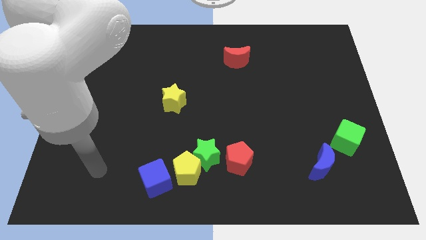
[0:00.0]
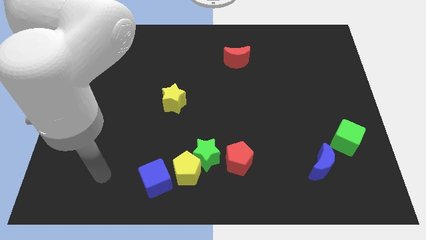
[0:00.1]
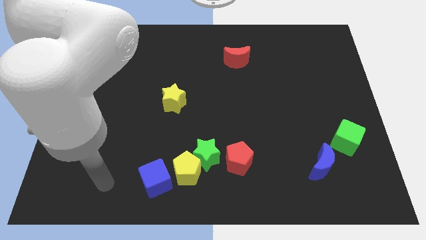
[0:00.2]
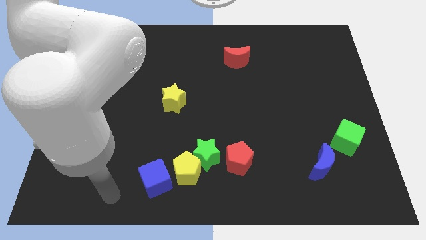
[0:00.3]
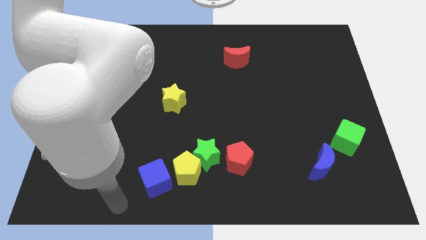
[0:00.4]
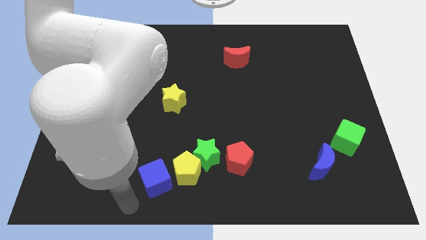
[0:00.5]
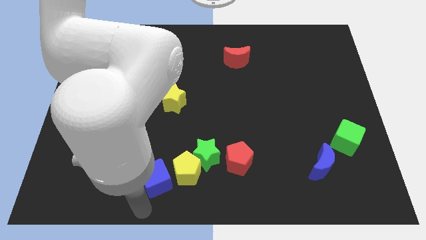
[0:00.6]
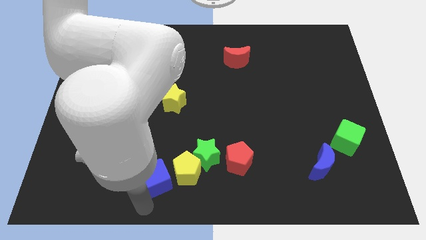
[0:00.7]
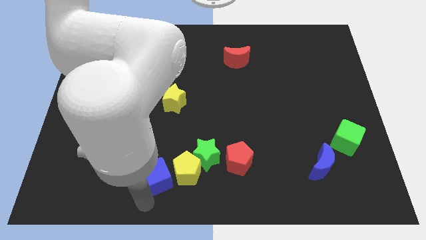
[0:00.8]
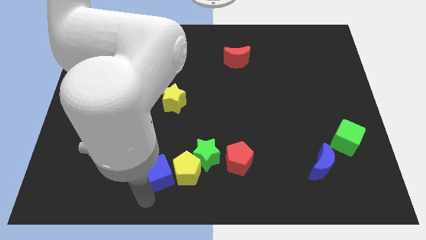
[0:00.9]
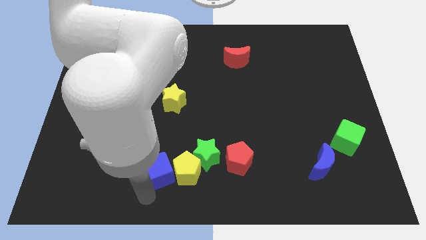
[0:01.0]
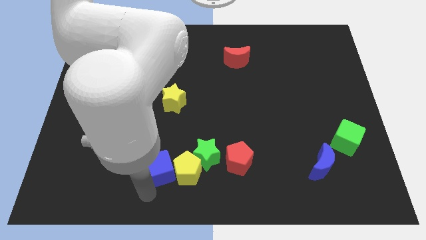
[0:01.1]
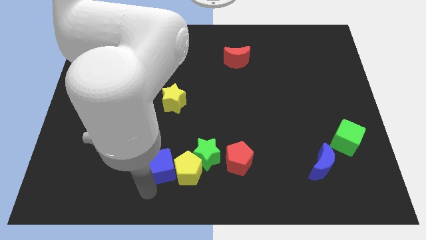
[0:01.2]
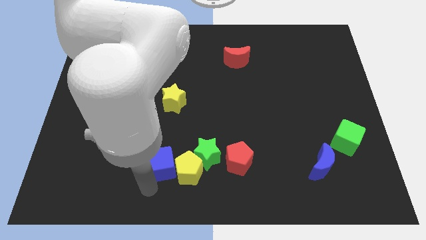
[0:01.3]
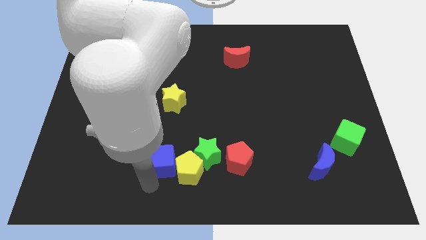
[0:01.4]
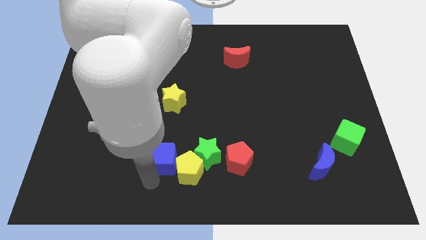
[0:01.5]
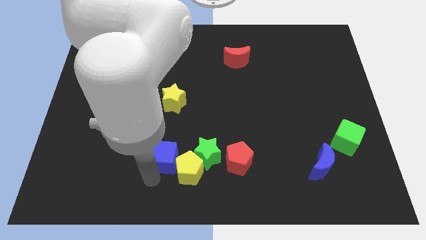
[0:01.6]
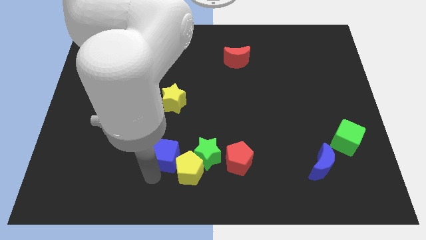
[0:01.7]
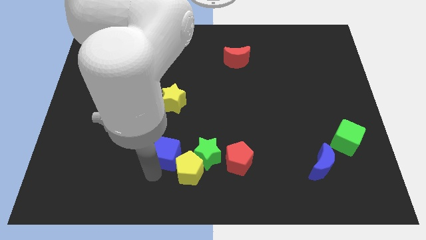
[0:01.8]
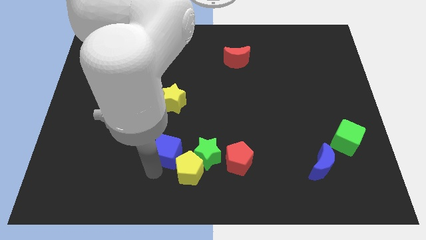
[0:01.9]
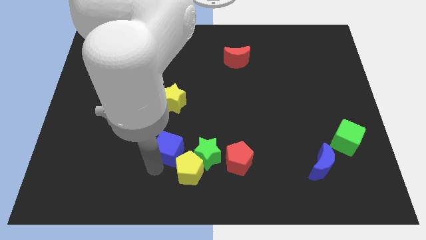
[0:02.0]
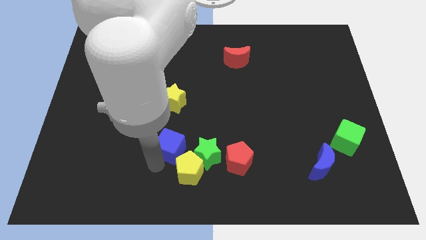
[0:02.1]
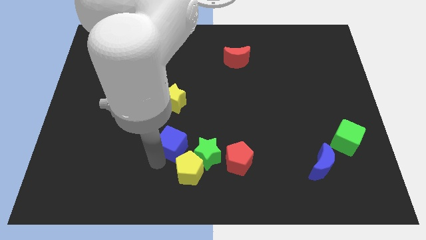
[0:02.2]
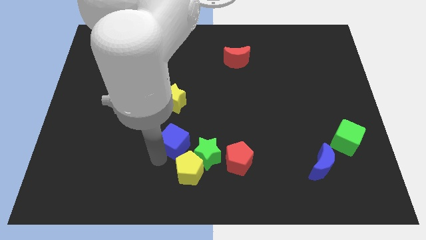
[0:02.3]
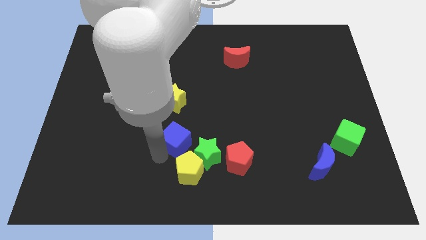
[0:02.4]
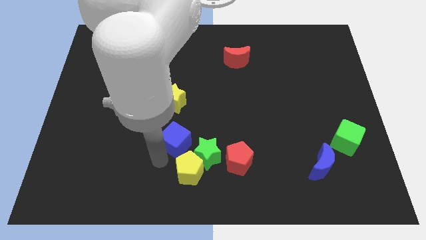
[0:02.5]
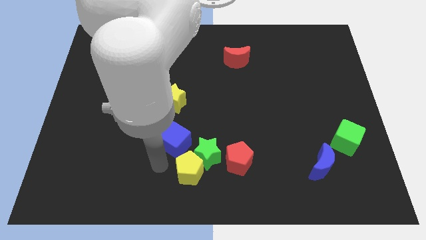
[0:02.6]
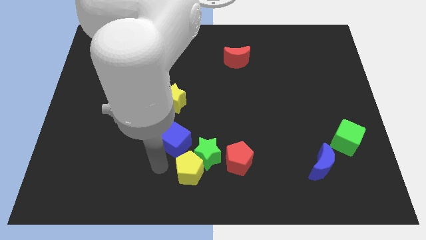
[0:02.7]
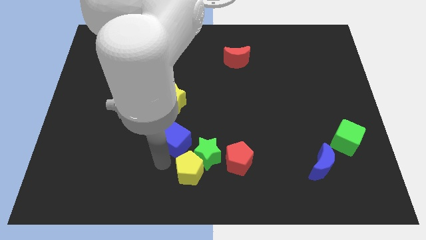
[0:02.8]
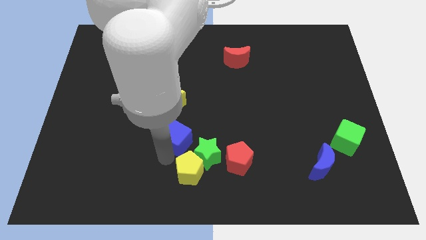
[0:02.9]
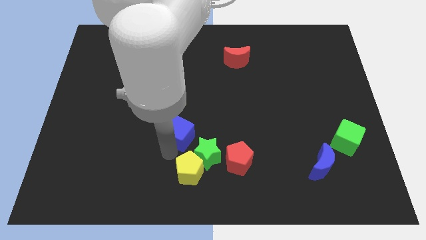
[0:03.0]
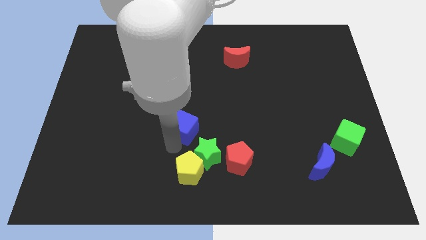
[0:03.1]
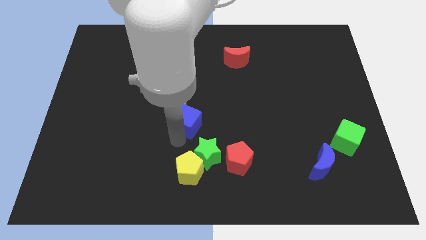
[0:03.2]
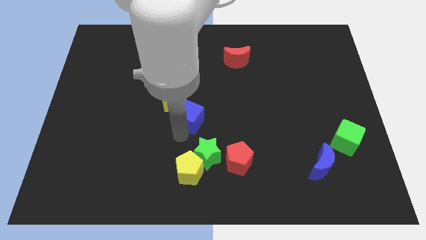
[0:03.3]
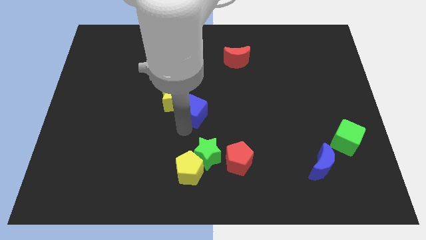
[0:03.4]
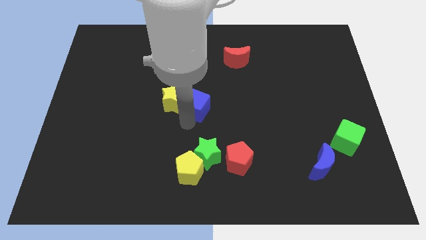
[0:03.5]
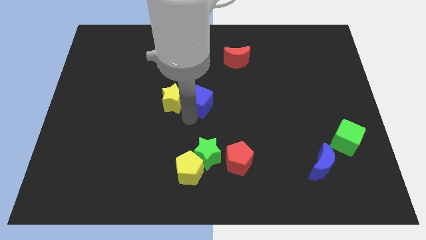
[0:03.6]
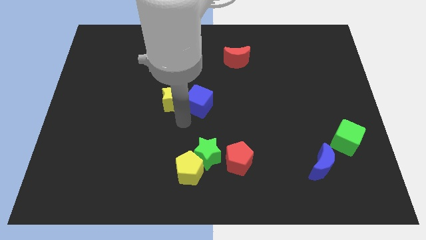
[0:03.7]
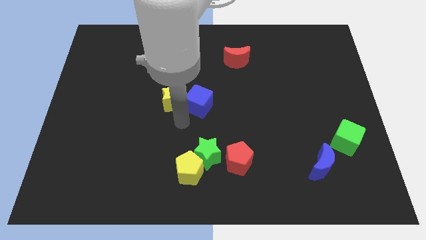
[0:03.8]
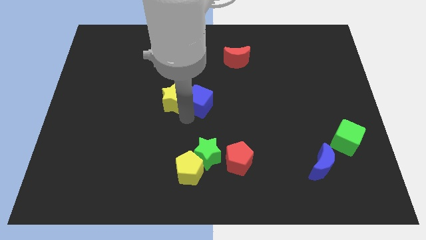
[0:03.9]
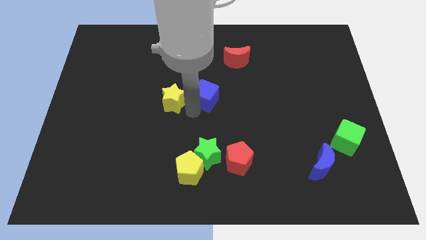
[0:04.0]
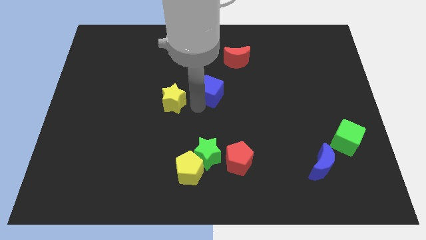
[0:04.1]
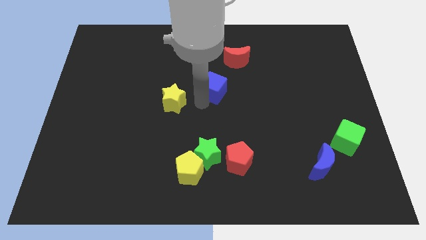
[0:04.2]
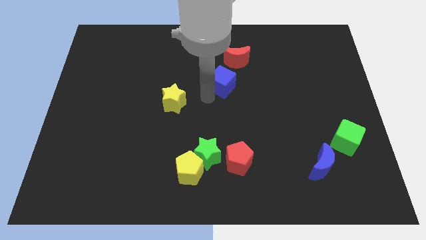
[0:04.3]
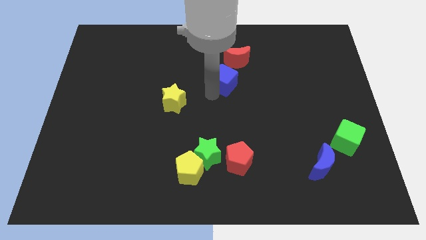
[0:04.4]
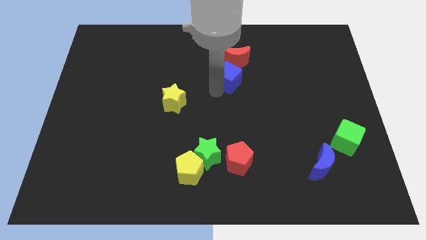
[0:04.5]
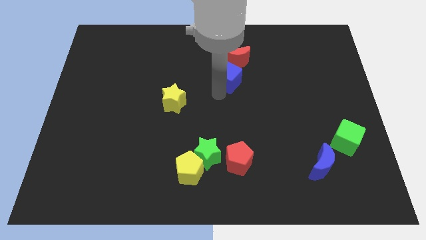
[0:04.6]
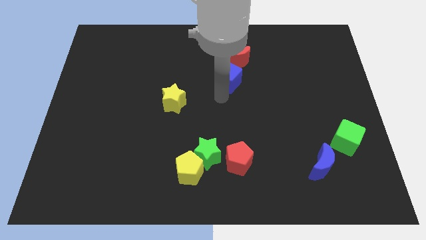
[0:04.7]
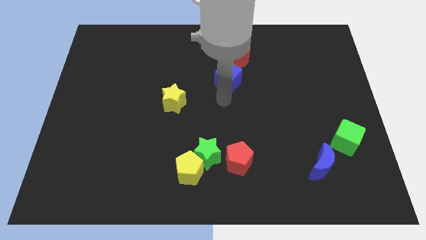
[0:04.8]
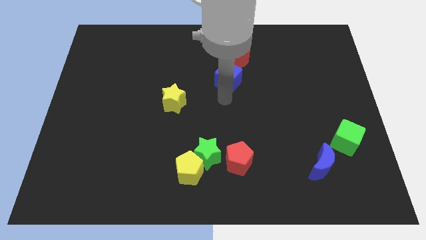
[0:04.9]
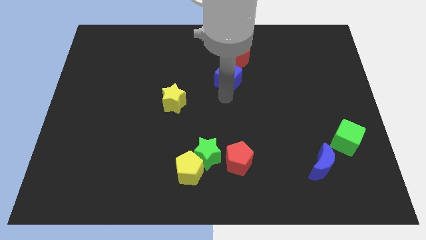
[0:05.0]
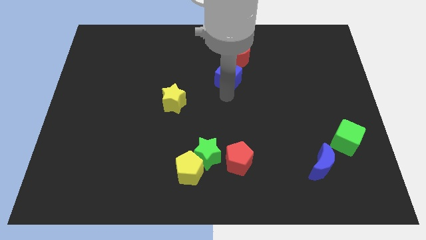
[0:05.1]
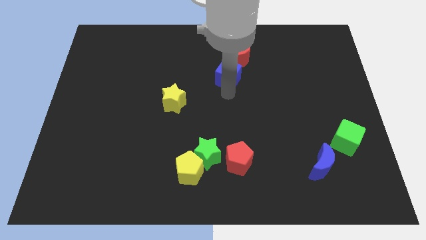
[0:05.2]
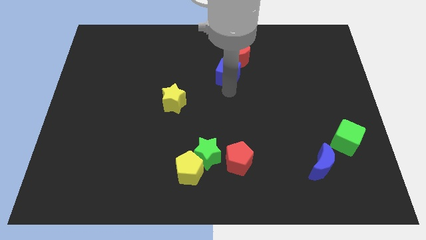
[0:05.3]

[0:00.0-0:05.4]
move the blue cube to the red moon

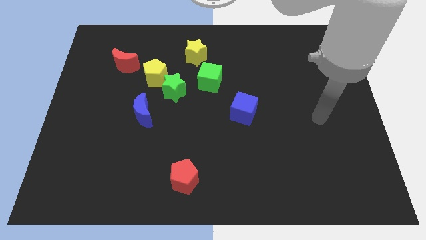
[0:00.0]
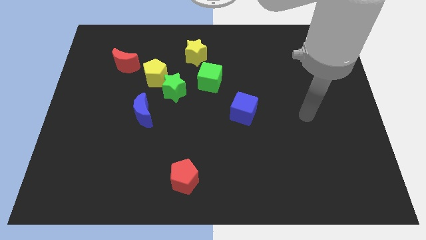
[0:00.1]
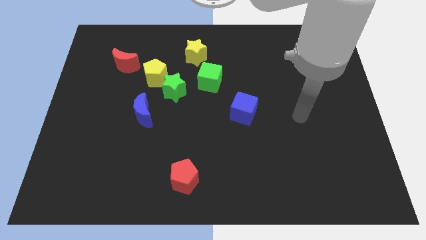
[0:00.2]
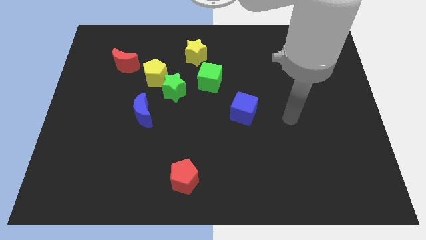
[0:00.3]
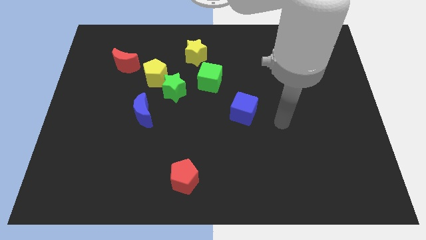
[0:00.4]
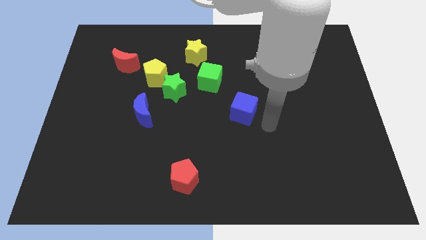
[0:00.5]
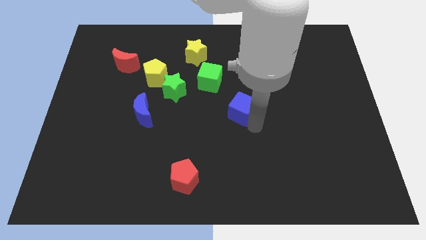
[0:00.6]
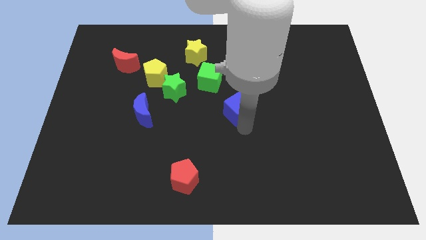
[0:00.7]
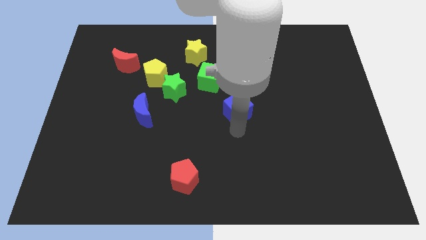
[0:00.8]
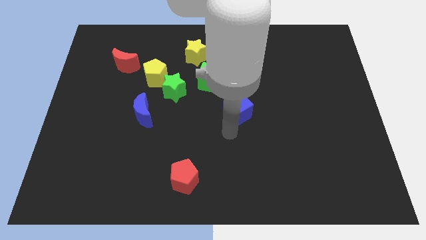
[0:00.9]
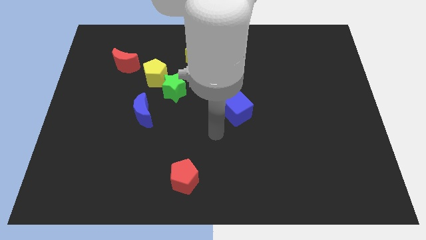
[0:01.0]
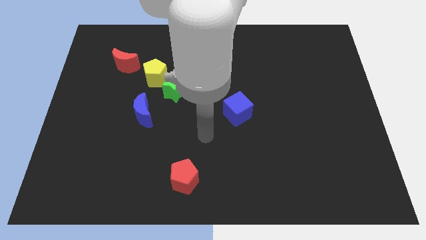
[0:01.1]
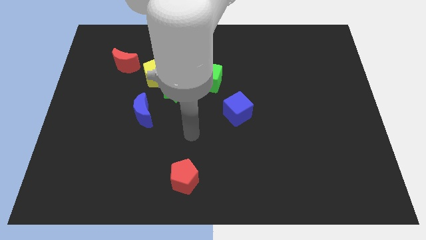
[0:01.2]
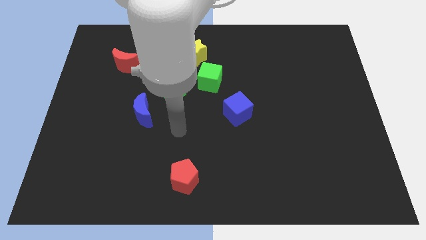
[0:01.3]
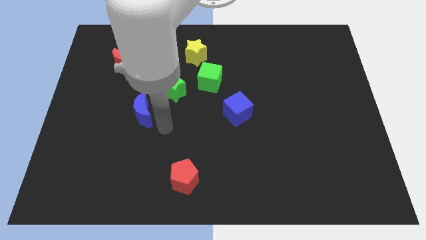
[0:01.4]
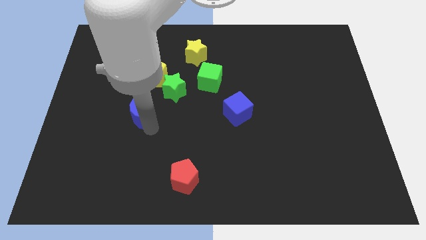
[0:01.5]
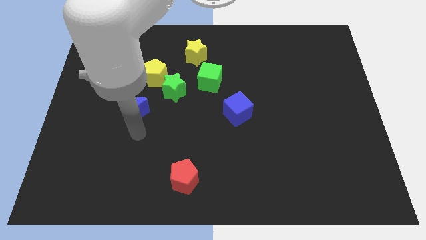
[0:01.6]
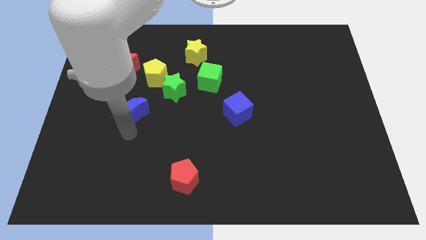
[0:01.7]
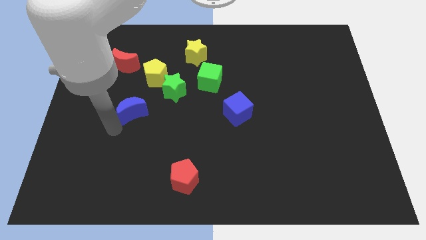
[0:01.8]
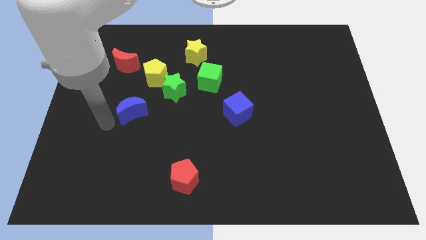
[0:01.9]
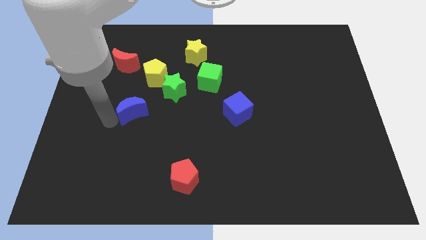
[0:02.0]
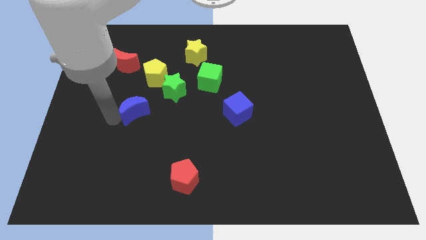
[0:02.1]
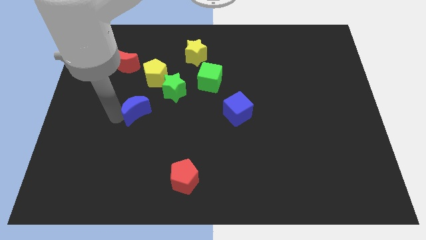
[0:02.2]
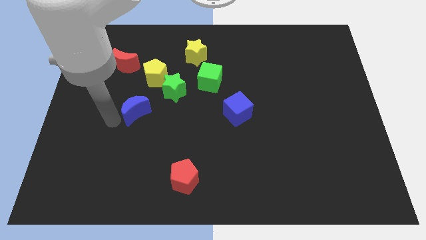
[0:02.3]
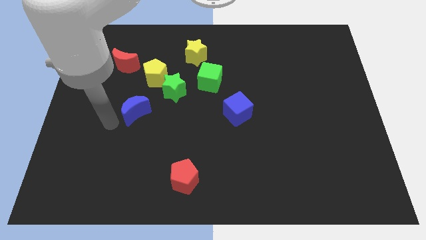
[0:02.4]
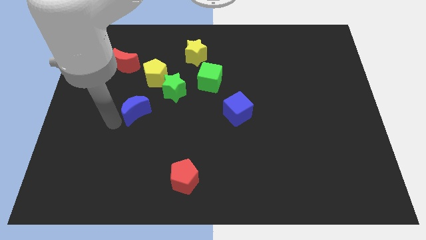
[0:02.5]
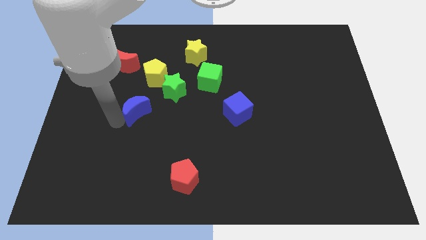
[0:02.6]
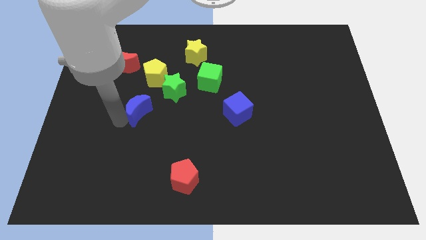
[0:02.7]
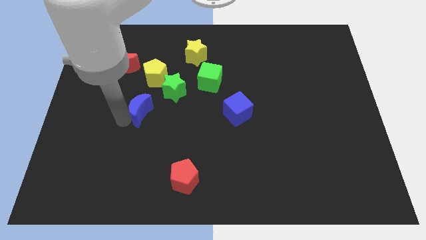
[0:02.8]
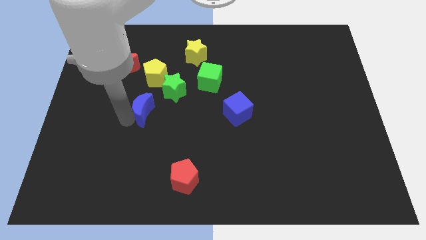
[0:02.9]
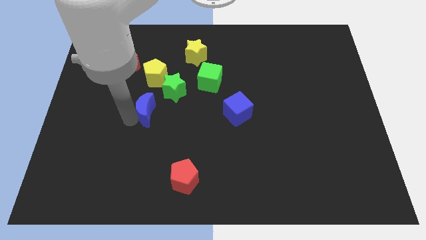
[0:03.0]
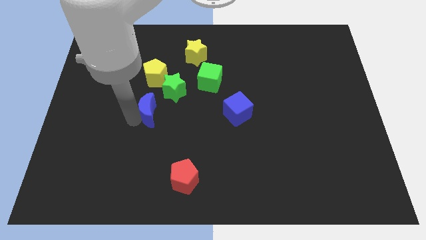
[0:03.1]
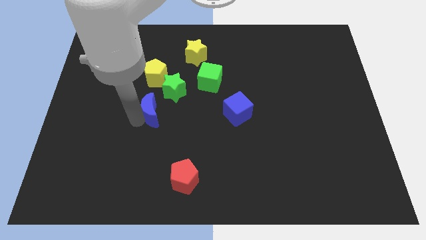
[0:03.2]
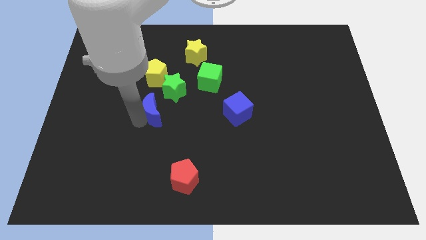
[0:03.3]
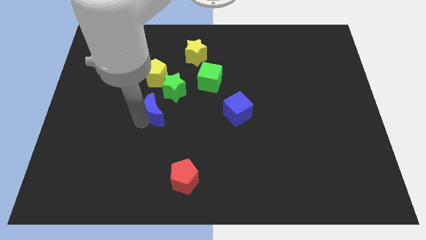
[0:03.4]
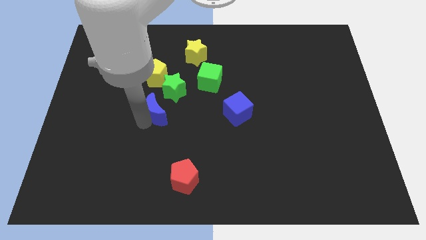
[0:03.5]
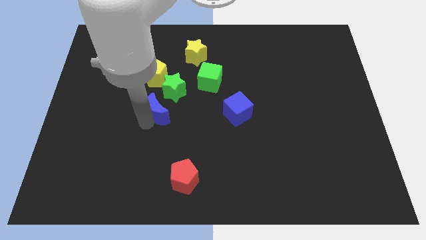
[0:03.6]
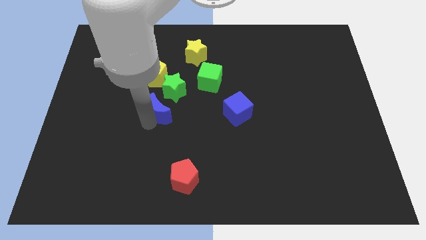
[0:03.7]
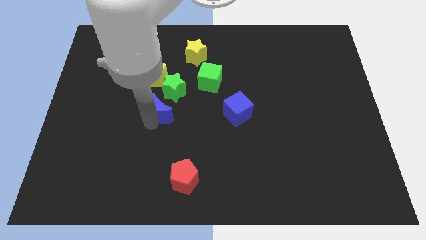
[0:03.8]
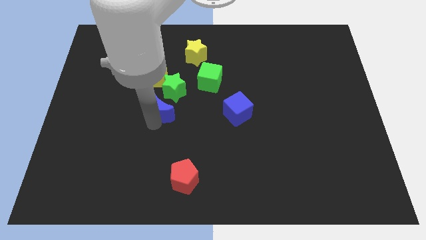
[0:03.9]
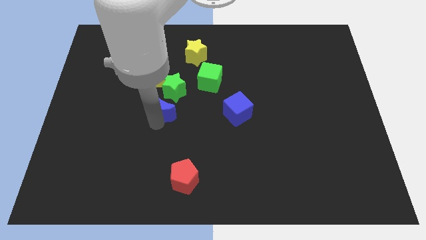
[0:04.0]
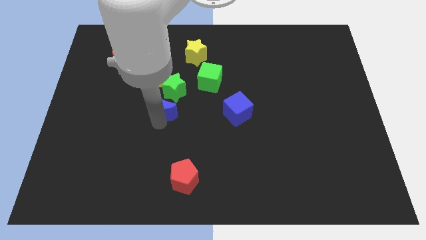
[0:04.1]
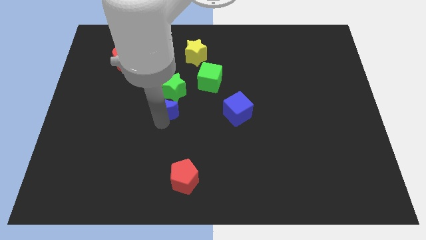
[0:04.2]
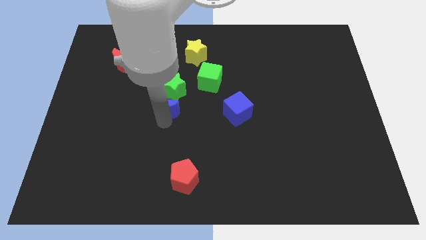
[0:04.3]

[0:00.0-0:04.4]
put the blue moon to the green star
